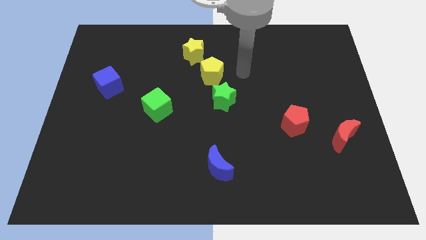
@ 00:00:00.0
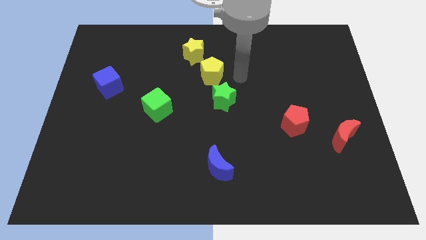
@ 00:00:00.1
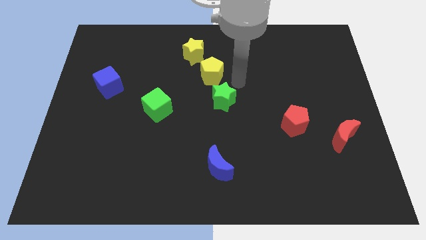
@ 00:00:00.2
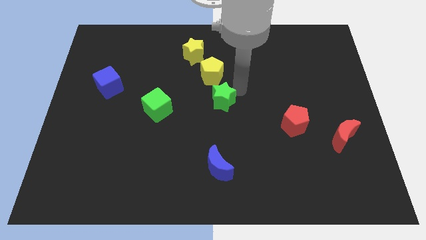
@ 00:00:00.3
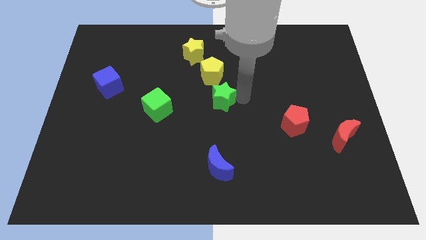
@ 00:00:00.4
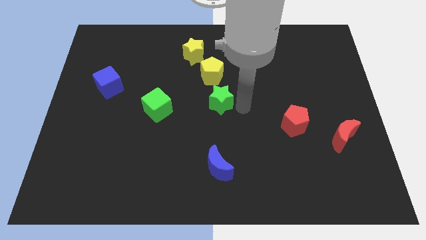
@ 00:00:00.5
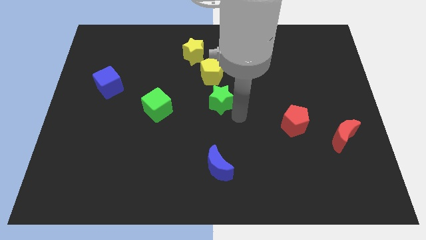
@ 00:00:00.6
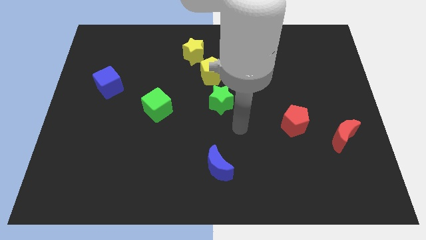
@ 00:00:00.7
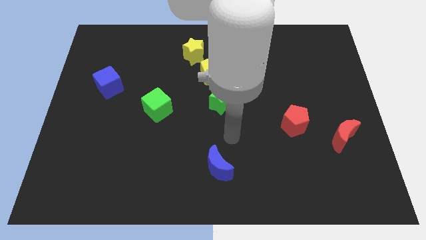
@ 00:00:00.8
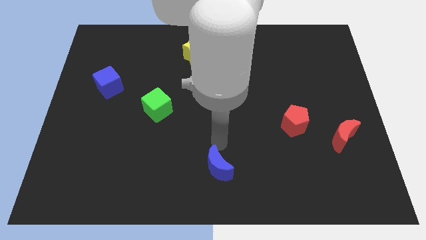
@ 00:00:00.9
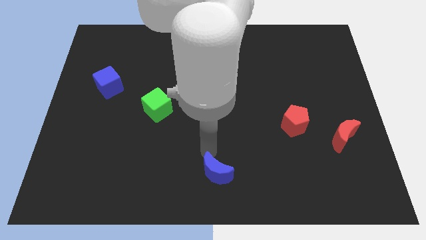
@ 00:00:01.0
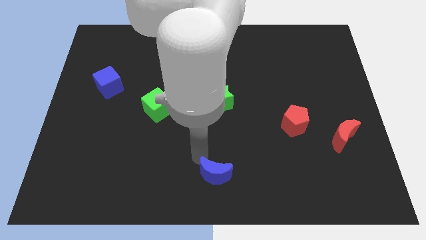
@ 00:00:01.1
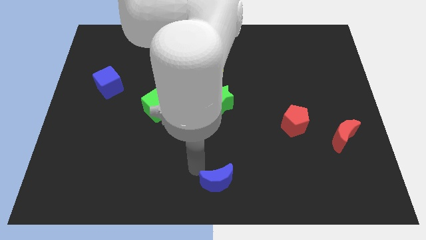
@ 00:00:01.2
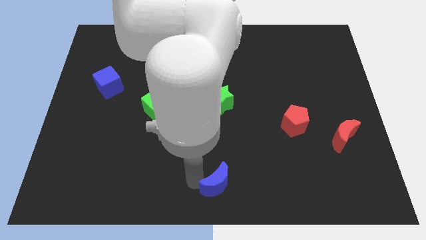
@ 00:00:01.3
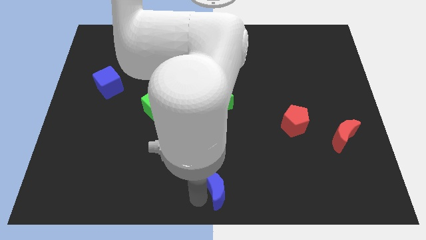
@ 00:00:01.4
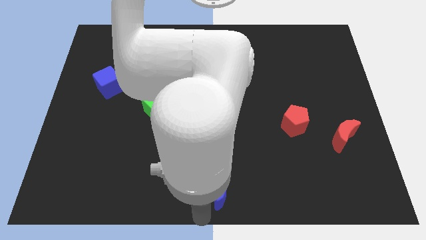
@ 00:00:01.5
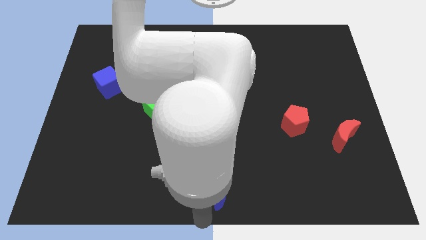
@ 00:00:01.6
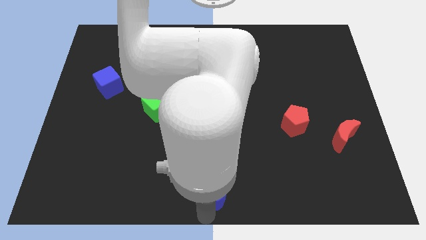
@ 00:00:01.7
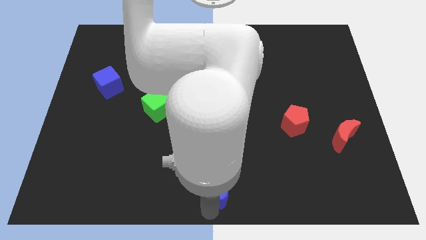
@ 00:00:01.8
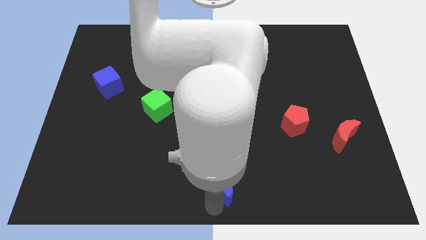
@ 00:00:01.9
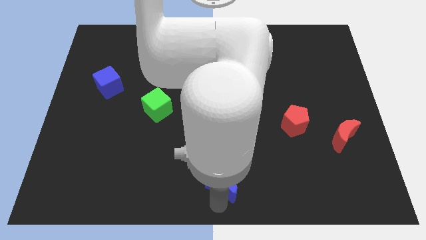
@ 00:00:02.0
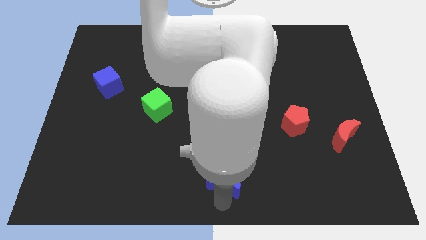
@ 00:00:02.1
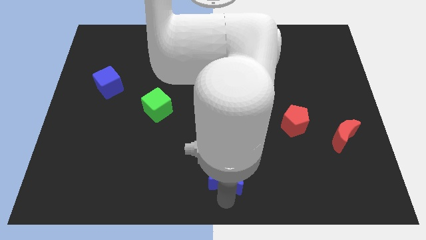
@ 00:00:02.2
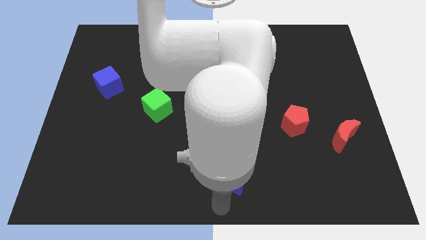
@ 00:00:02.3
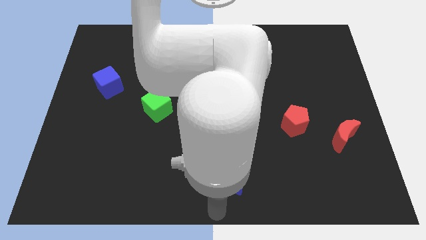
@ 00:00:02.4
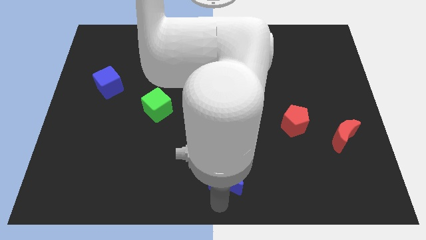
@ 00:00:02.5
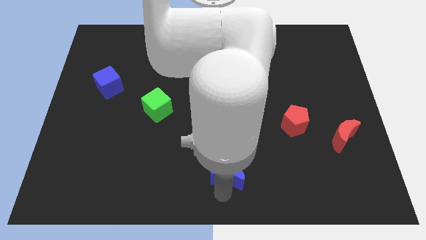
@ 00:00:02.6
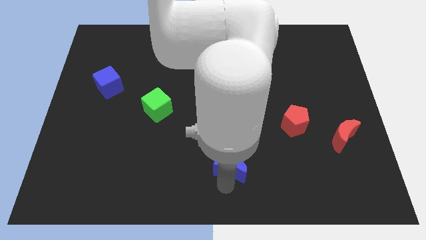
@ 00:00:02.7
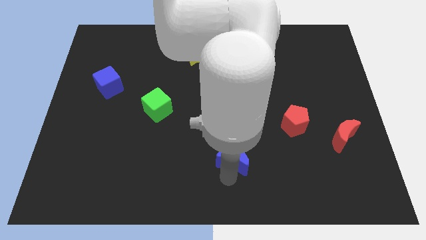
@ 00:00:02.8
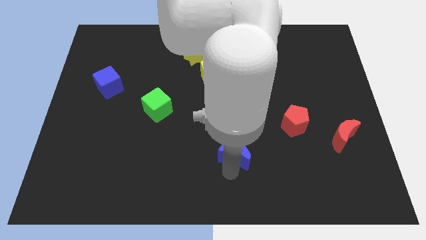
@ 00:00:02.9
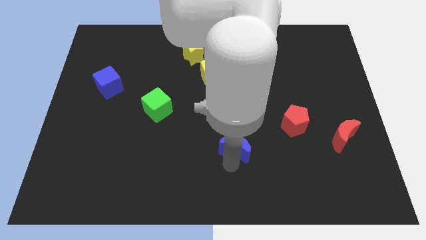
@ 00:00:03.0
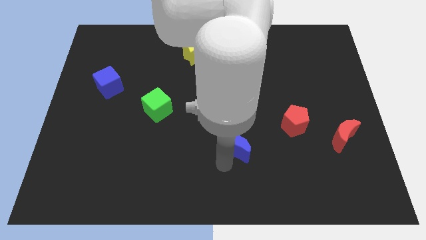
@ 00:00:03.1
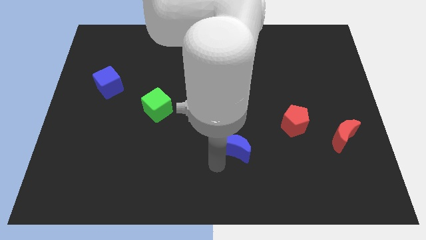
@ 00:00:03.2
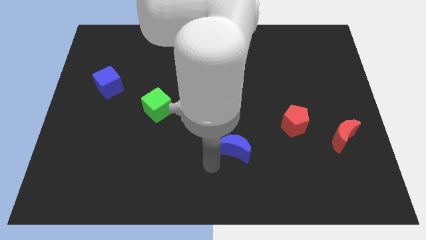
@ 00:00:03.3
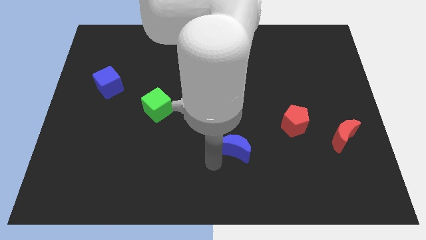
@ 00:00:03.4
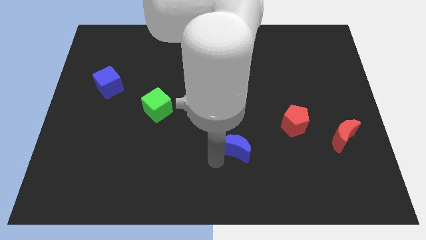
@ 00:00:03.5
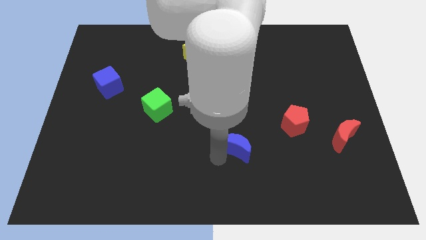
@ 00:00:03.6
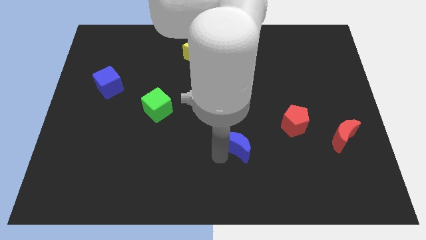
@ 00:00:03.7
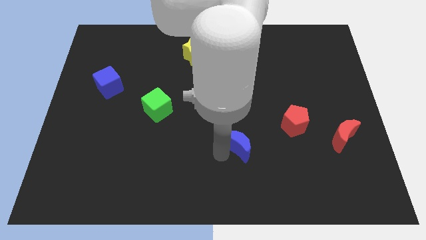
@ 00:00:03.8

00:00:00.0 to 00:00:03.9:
push the blue moon somewhat diagonally up and to the right

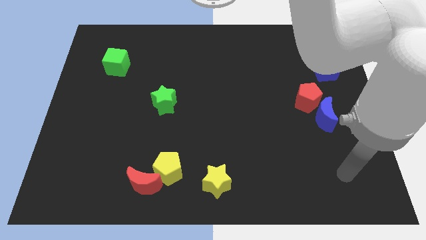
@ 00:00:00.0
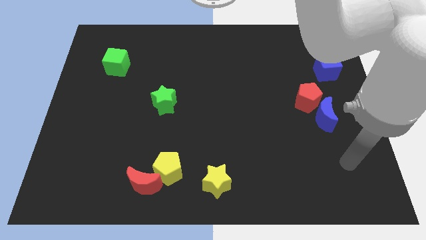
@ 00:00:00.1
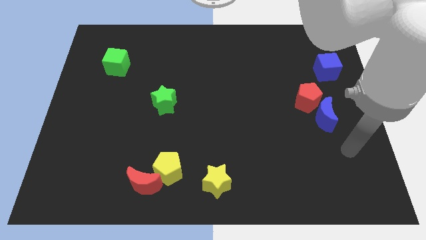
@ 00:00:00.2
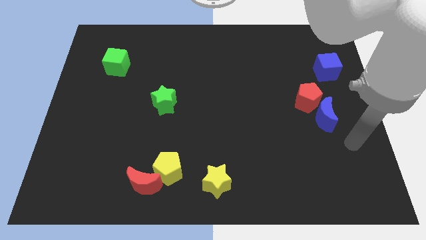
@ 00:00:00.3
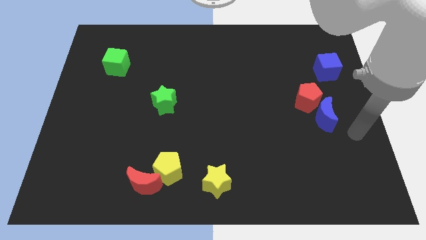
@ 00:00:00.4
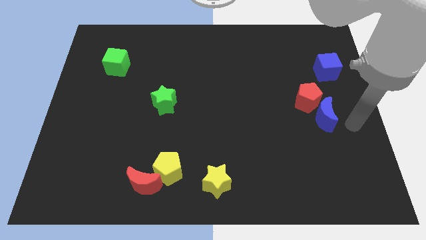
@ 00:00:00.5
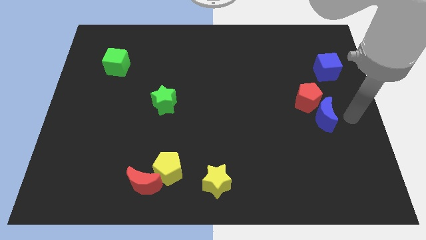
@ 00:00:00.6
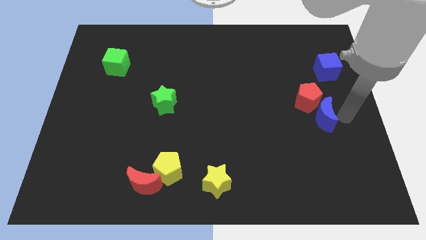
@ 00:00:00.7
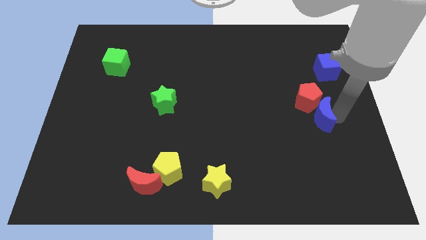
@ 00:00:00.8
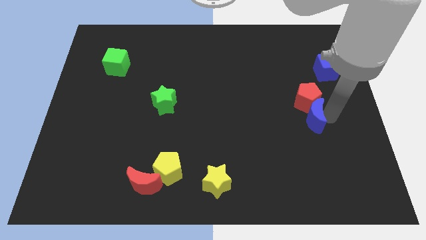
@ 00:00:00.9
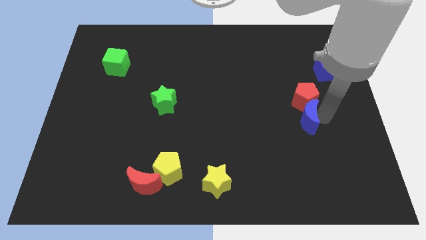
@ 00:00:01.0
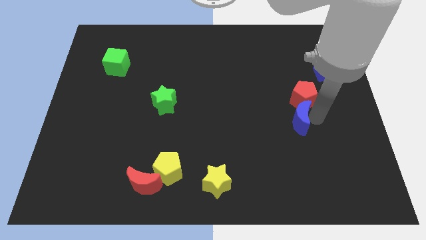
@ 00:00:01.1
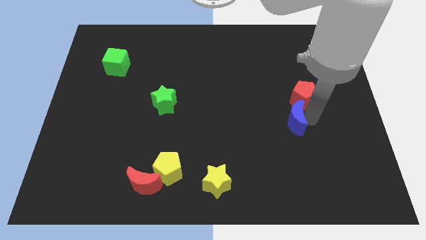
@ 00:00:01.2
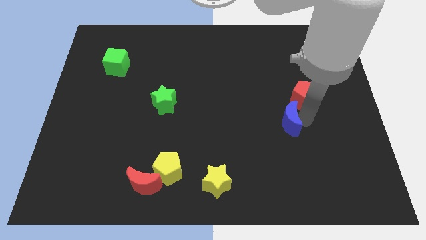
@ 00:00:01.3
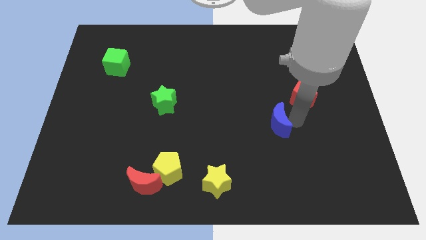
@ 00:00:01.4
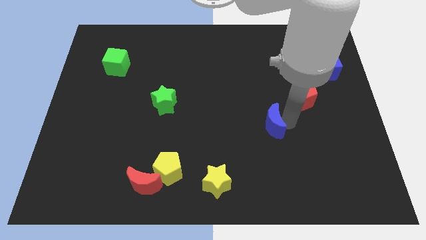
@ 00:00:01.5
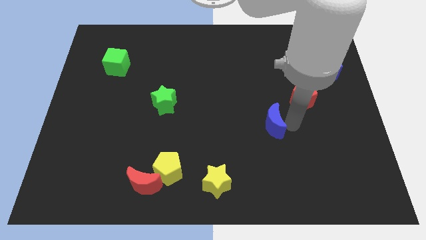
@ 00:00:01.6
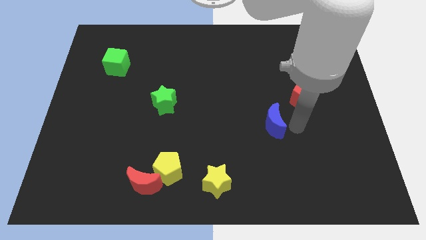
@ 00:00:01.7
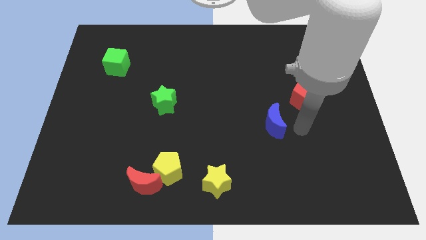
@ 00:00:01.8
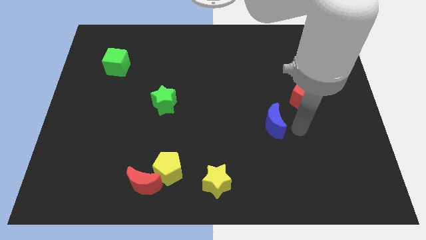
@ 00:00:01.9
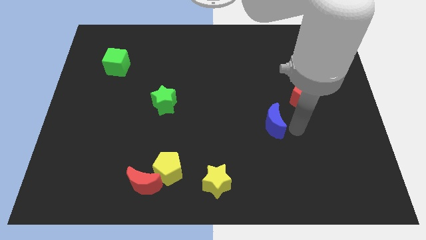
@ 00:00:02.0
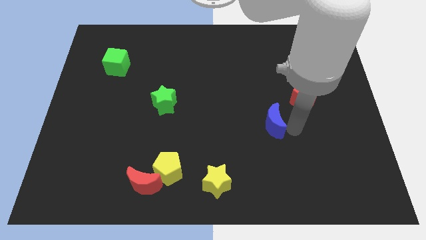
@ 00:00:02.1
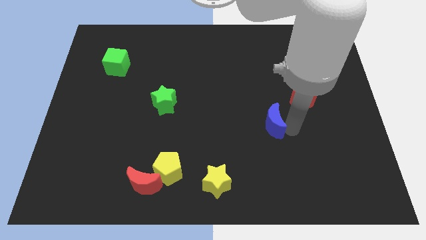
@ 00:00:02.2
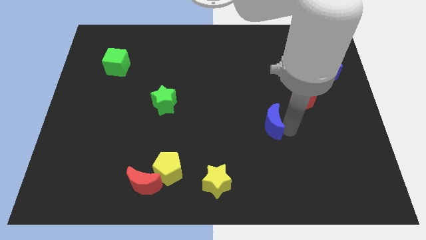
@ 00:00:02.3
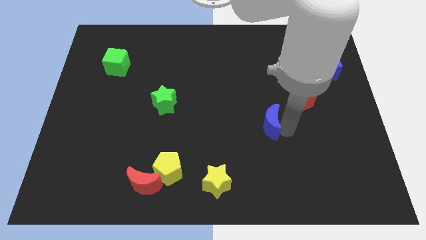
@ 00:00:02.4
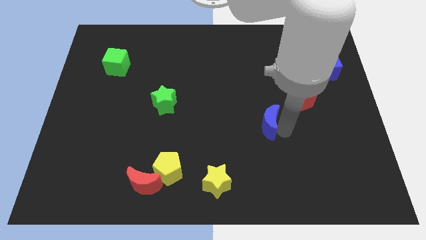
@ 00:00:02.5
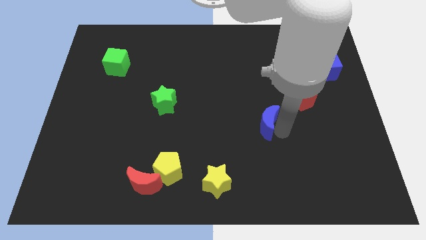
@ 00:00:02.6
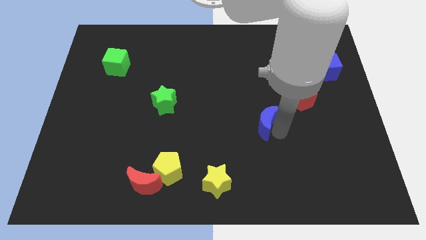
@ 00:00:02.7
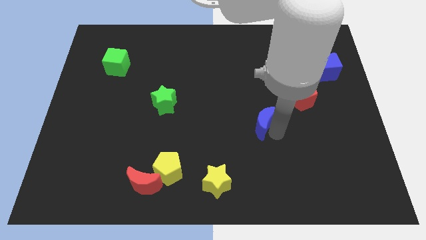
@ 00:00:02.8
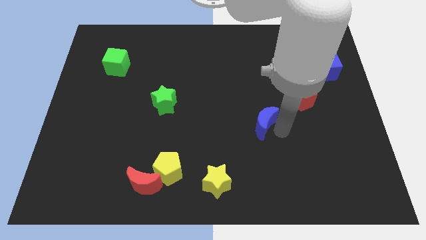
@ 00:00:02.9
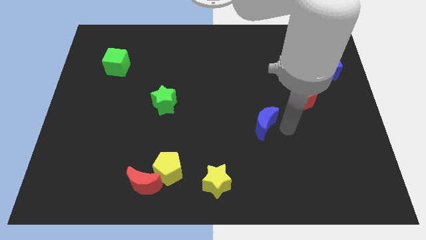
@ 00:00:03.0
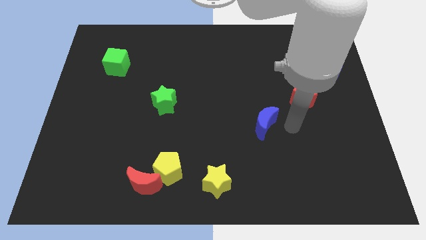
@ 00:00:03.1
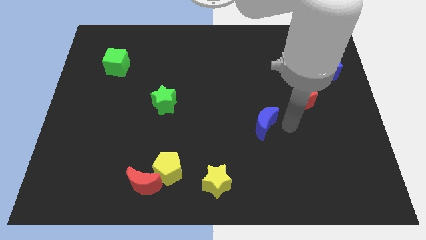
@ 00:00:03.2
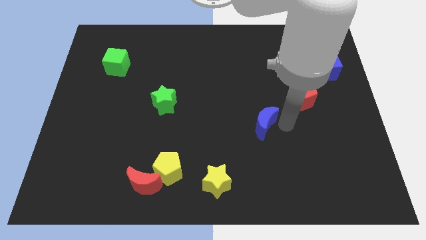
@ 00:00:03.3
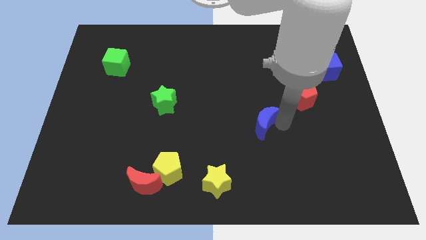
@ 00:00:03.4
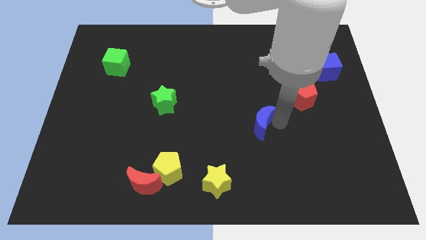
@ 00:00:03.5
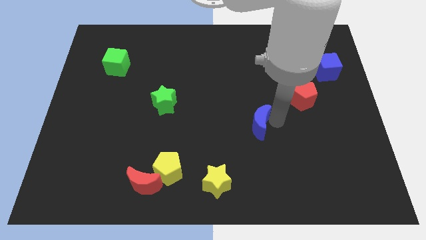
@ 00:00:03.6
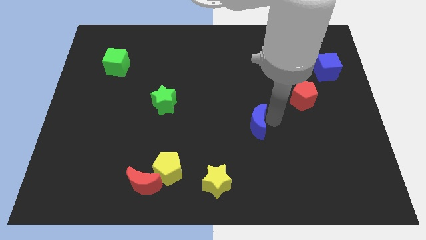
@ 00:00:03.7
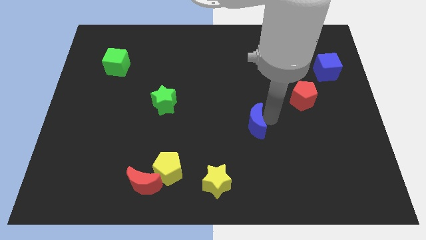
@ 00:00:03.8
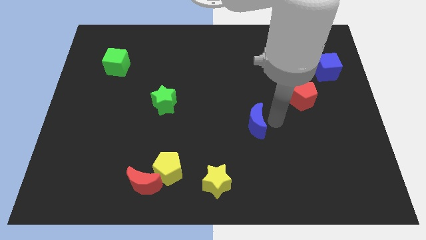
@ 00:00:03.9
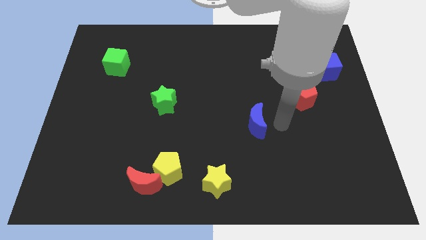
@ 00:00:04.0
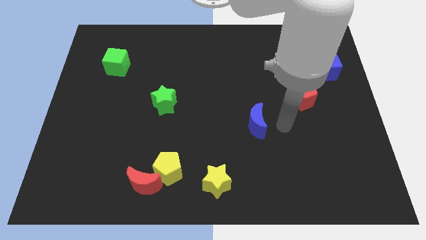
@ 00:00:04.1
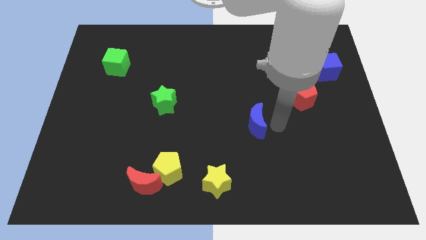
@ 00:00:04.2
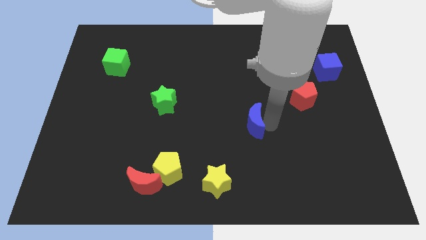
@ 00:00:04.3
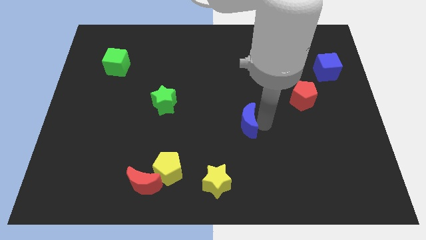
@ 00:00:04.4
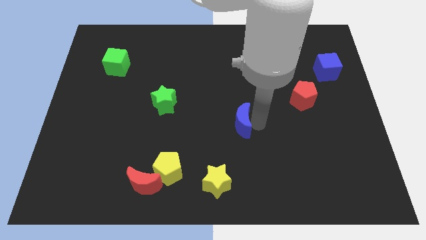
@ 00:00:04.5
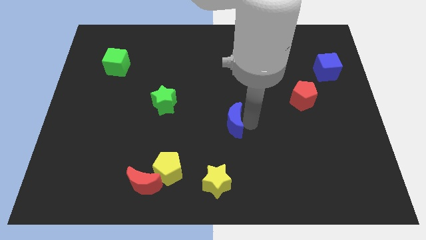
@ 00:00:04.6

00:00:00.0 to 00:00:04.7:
slide the blue moon left
